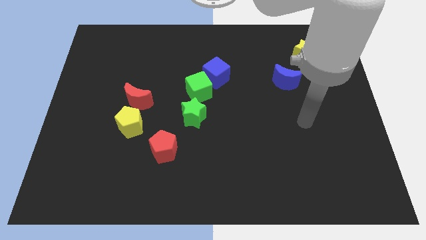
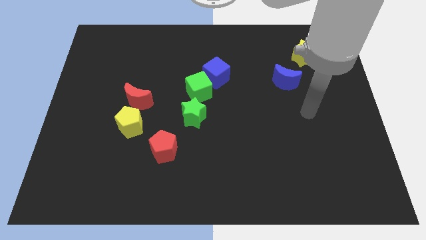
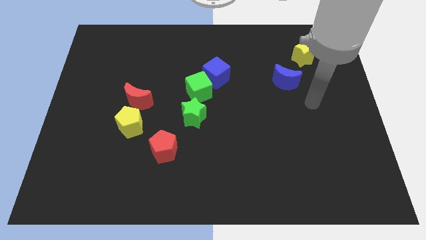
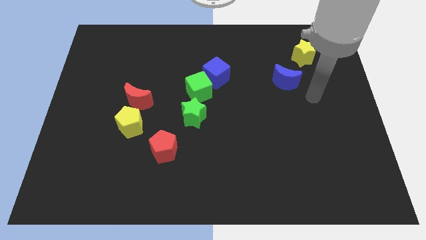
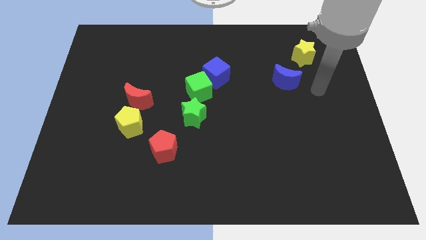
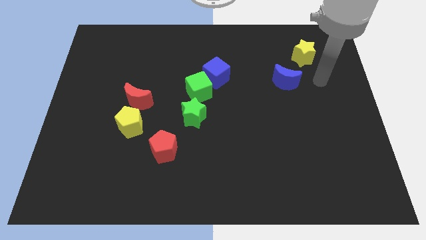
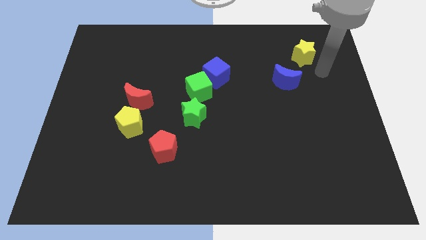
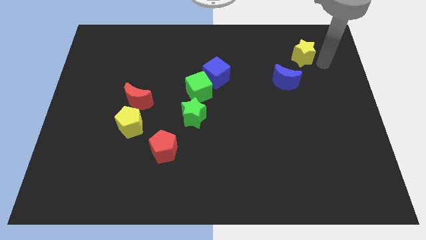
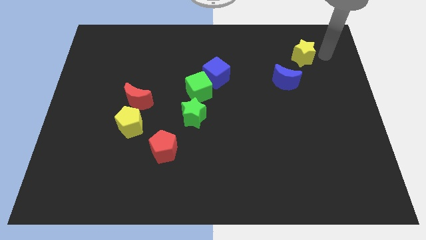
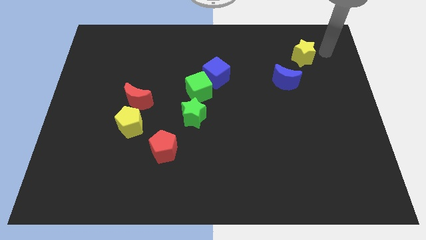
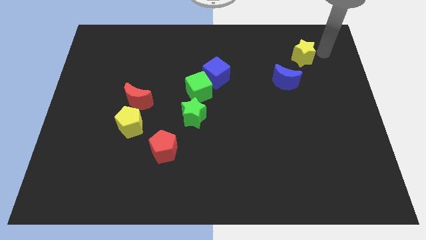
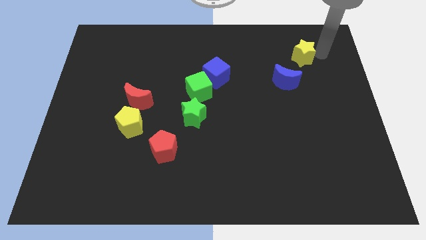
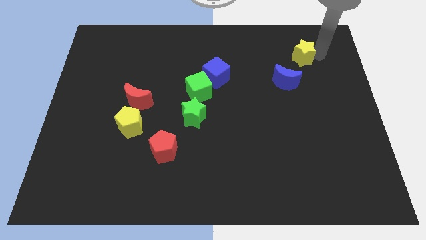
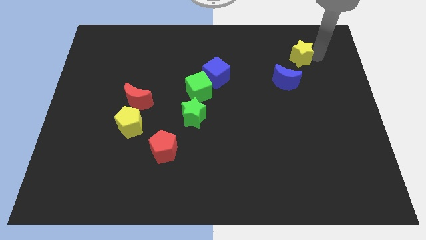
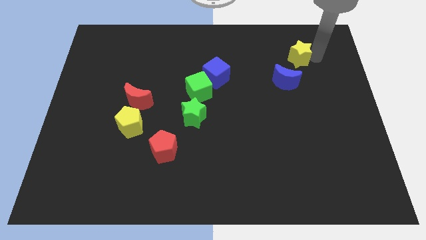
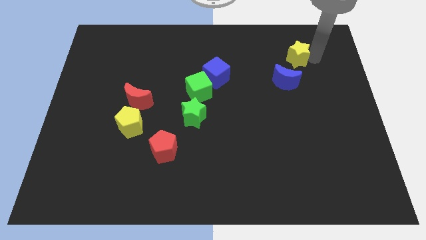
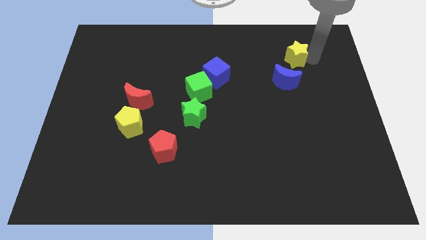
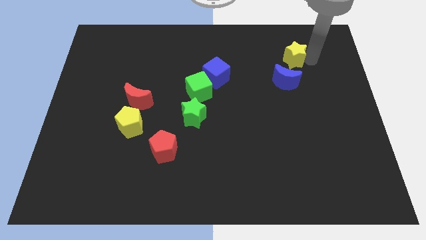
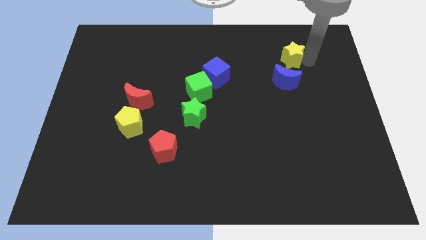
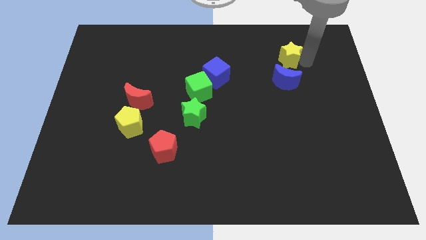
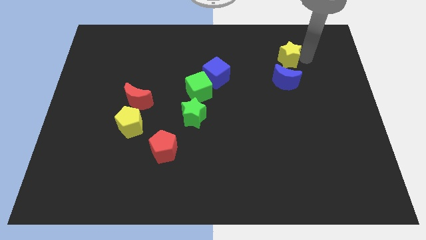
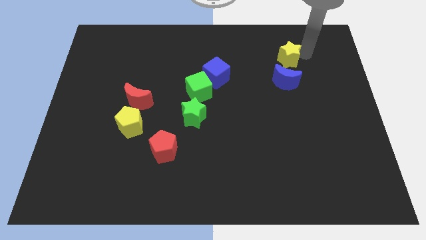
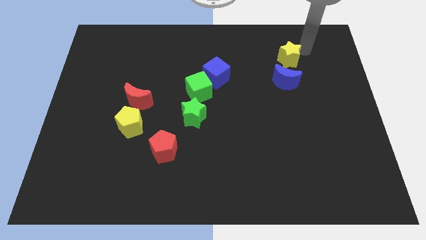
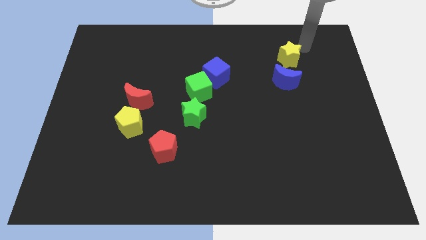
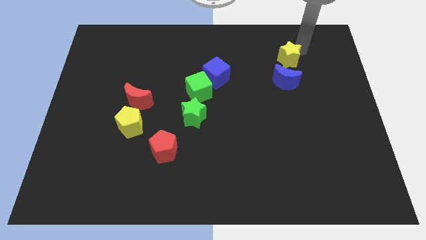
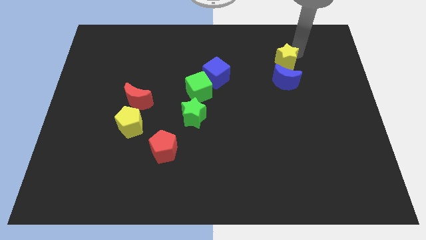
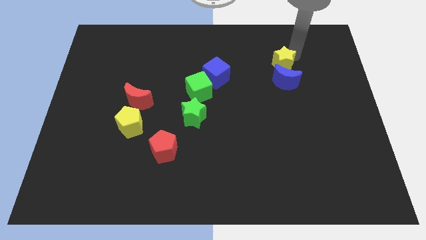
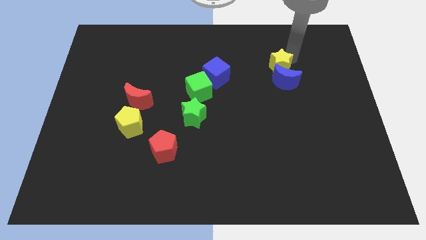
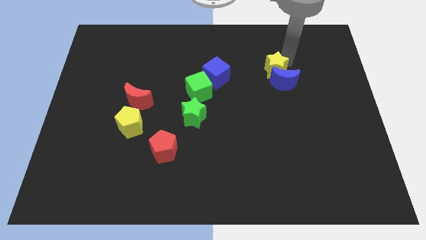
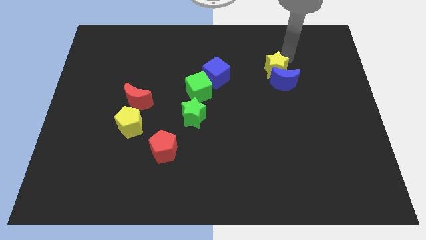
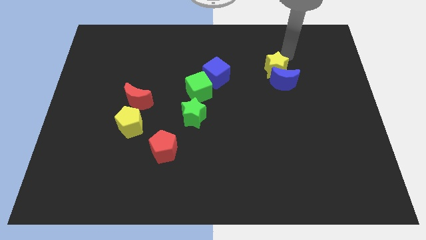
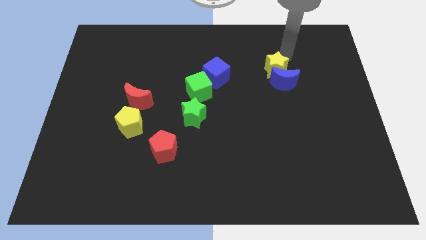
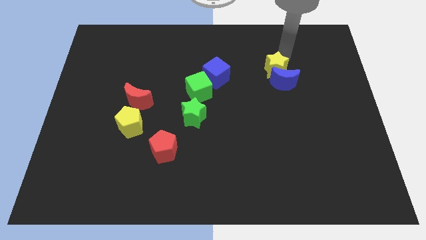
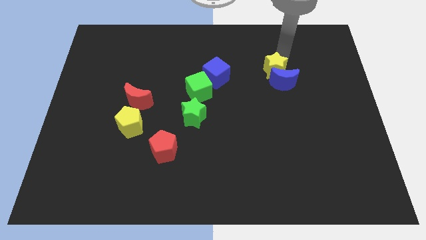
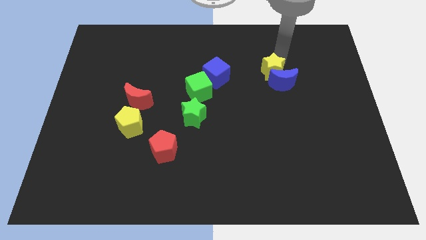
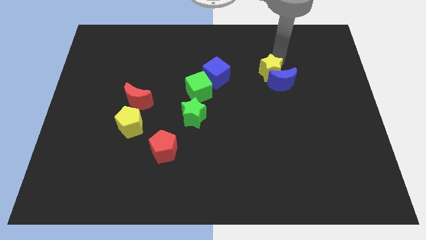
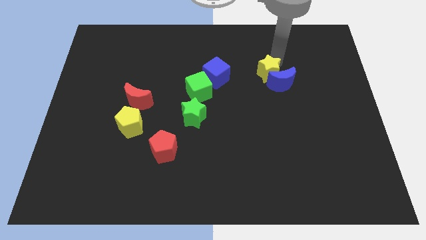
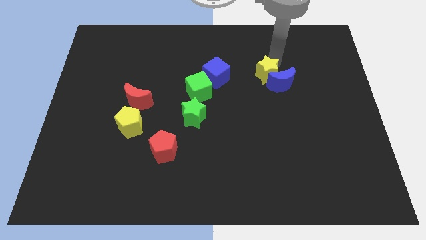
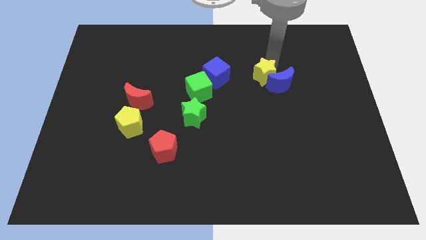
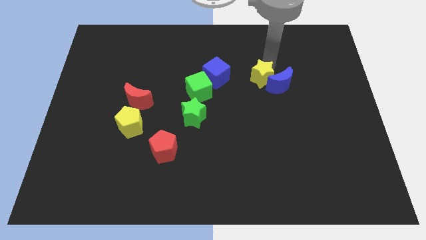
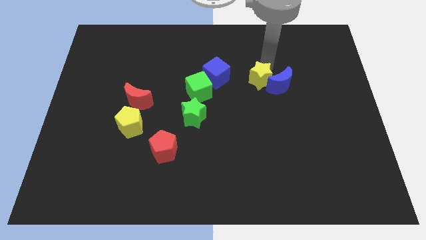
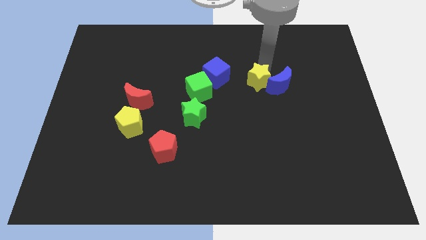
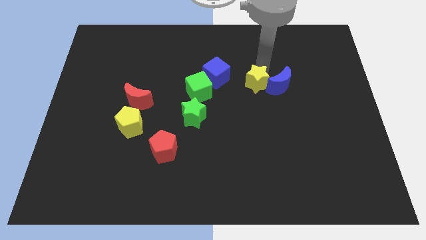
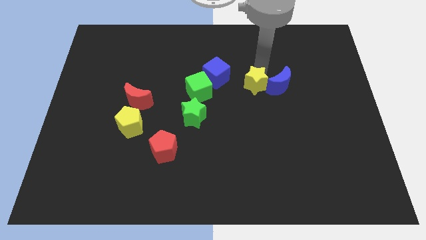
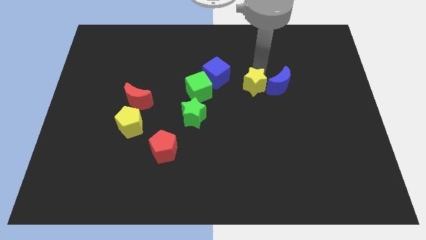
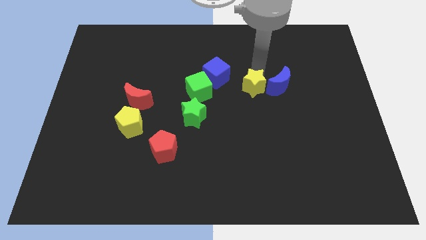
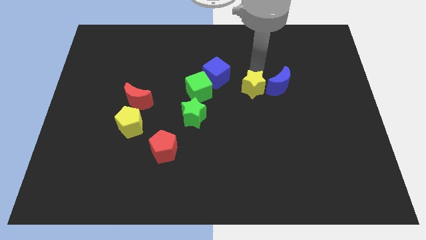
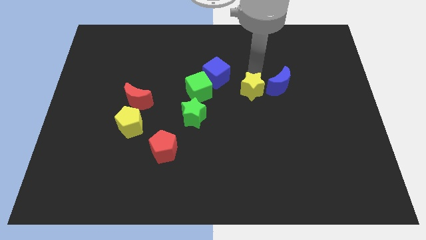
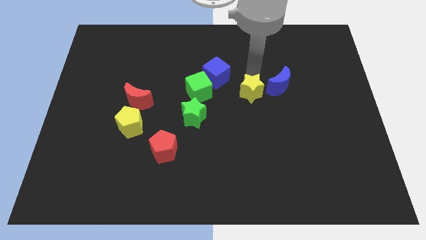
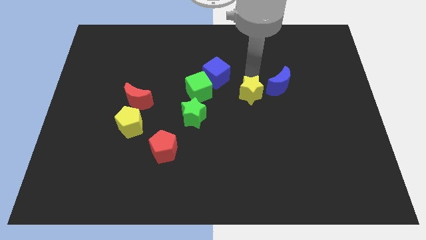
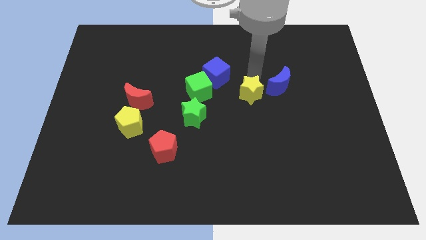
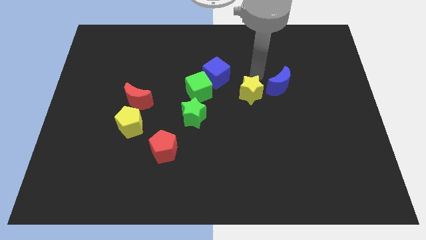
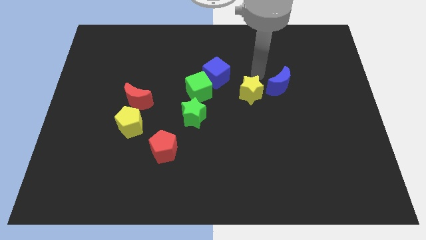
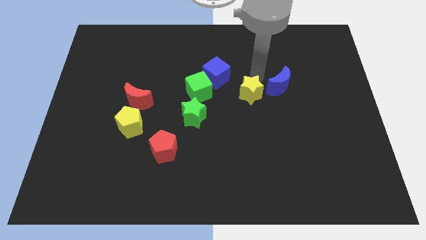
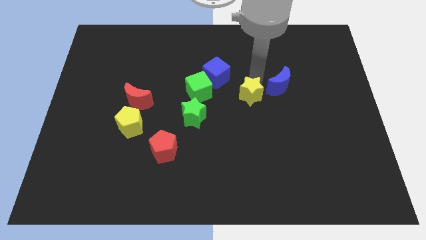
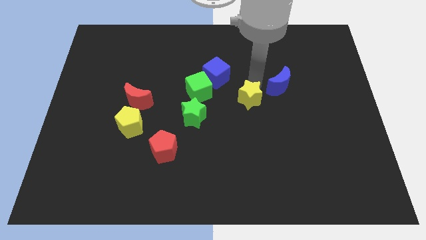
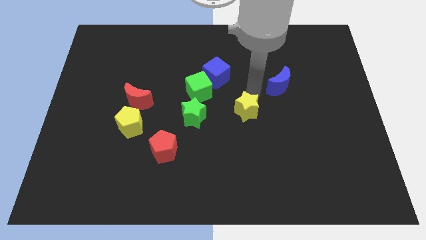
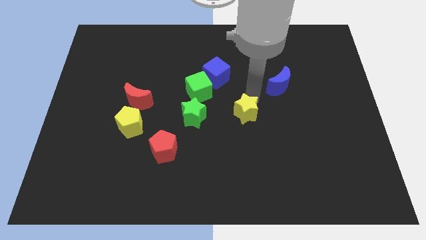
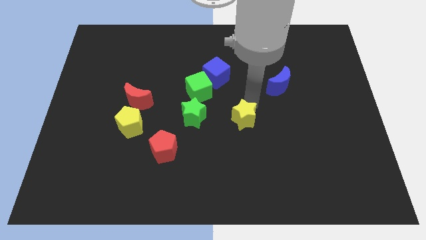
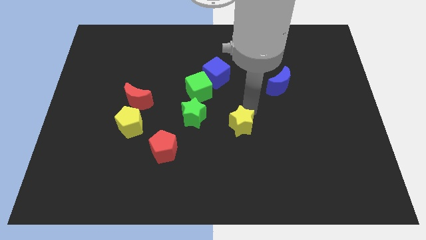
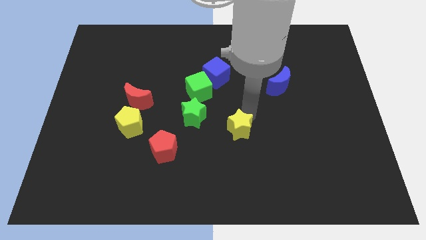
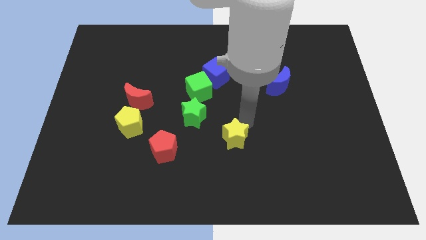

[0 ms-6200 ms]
slide the yellow star to the right side of the red pentagon

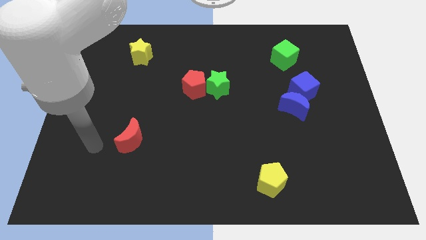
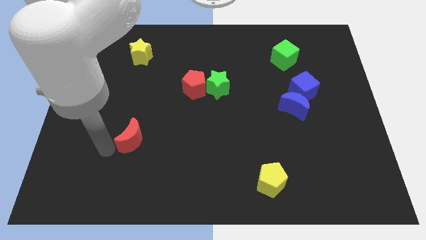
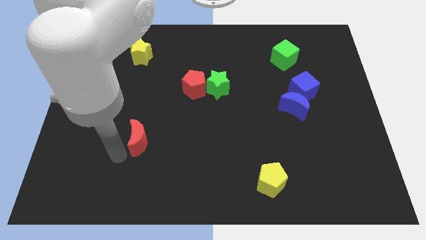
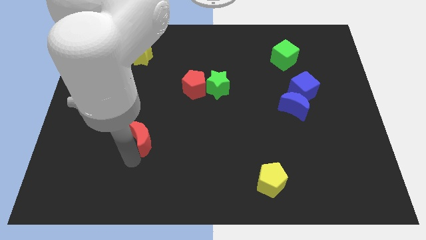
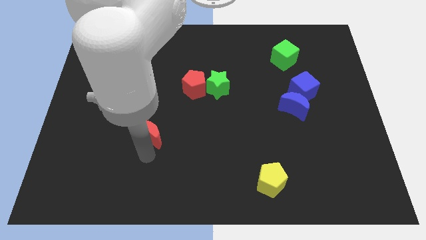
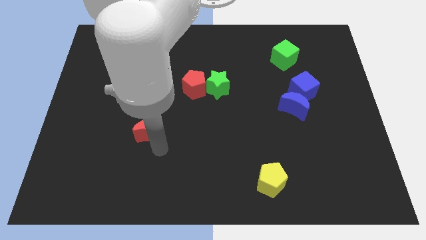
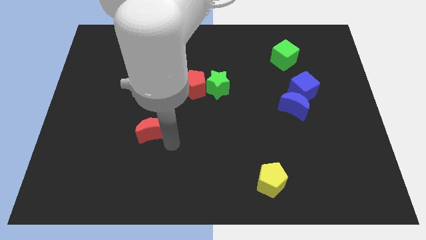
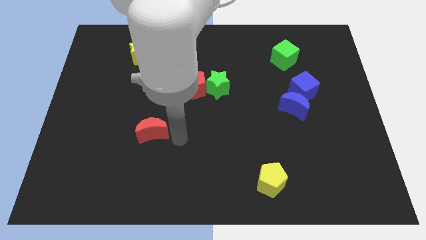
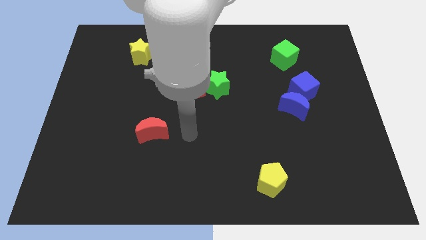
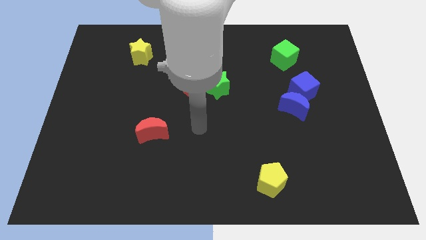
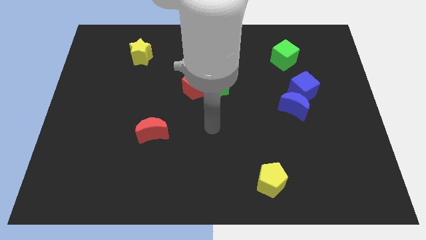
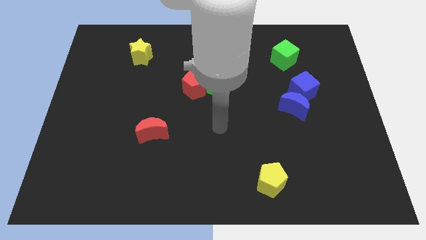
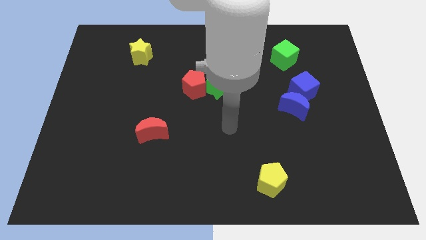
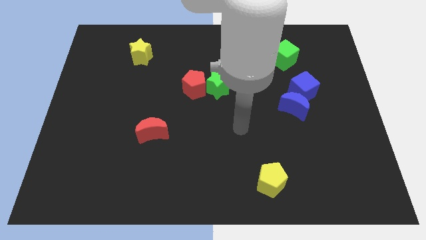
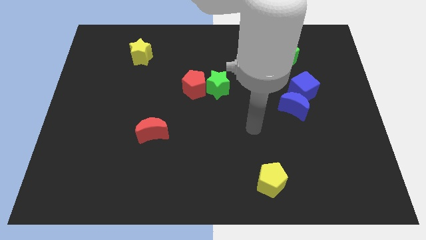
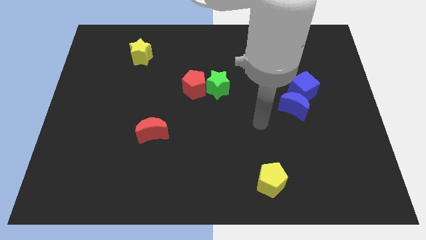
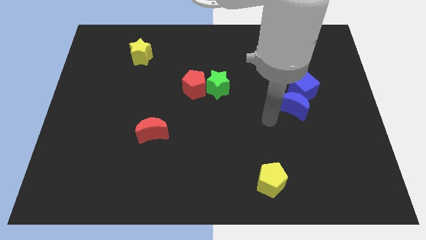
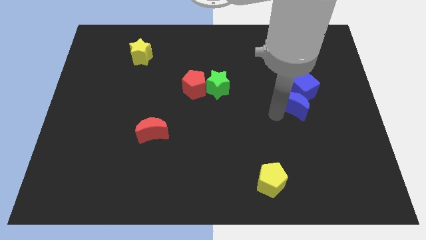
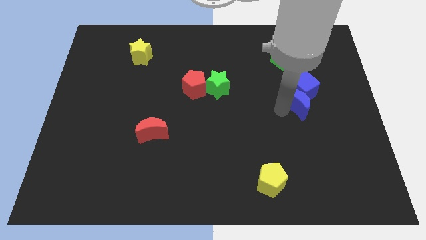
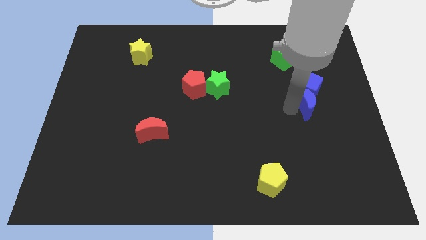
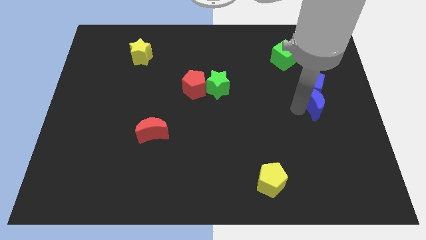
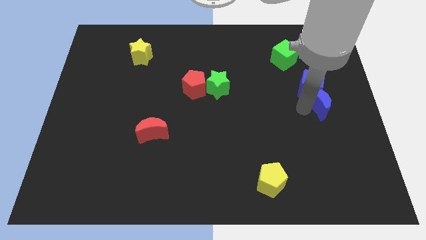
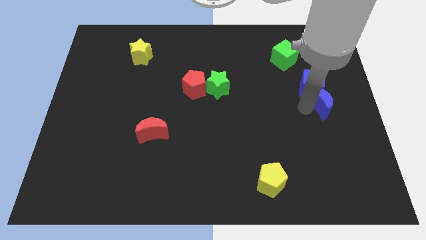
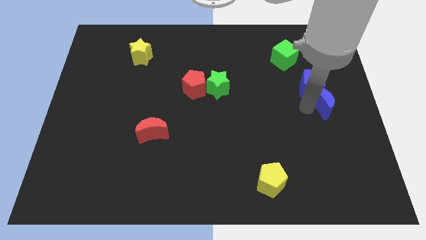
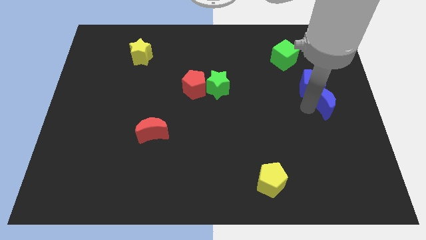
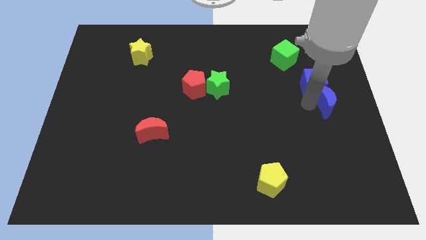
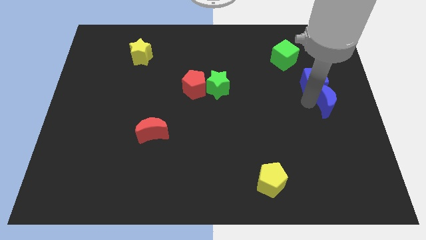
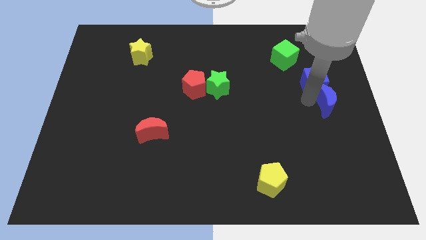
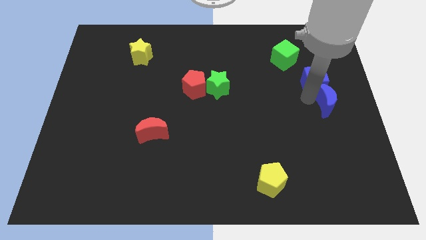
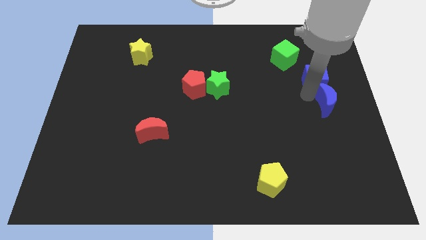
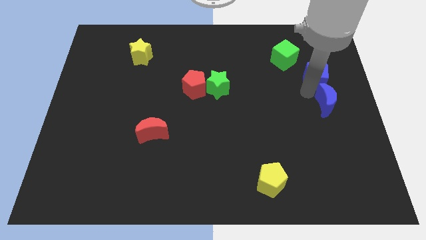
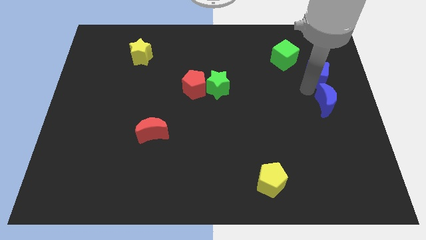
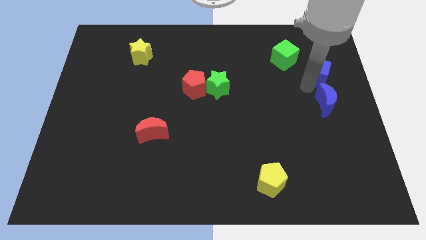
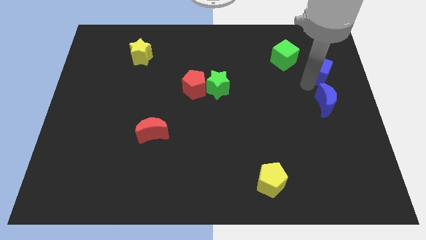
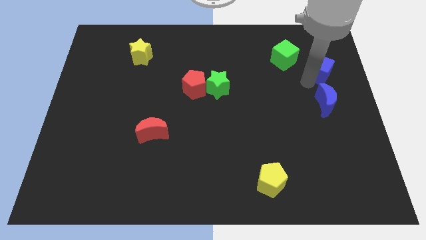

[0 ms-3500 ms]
put the blue cube to the right side of the green cube
